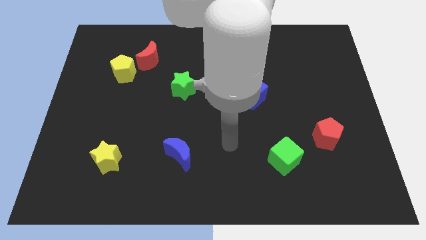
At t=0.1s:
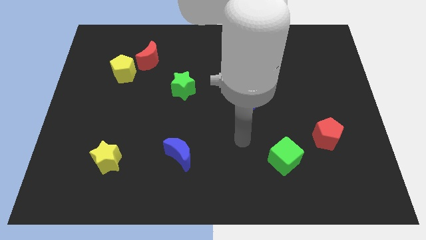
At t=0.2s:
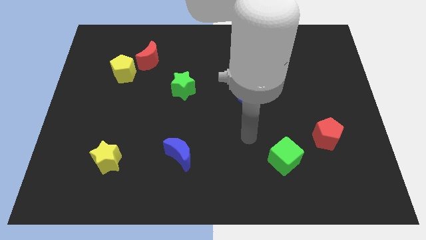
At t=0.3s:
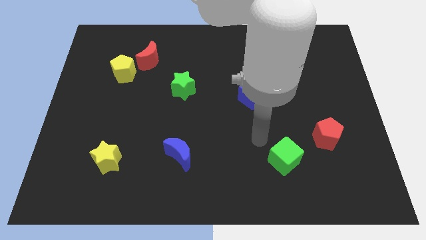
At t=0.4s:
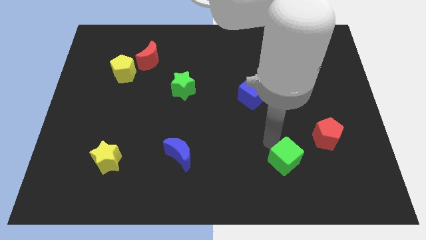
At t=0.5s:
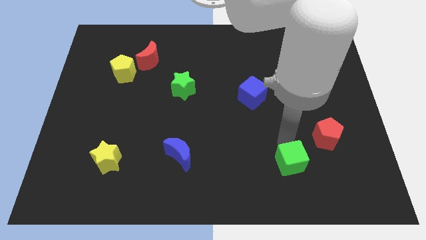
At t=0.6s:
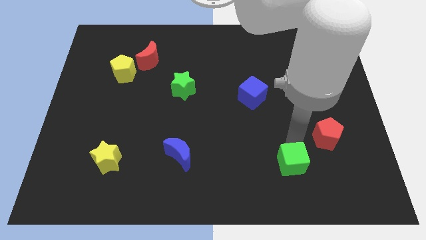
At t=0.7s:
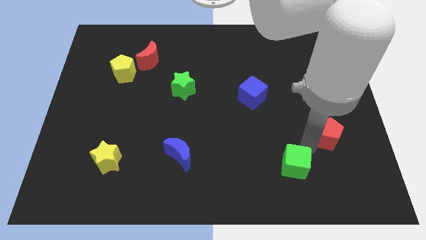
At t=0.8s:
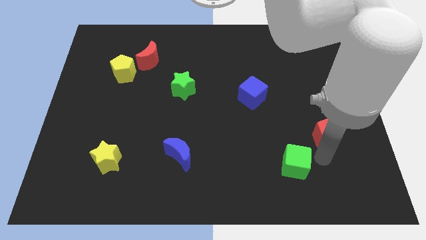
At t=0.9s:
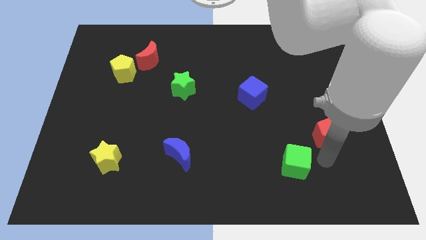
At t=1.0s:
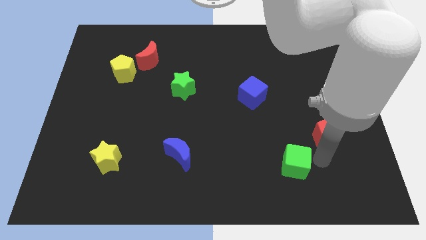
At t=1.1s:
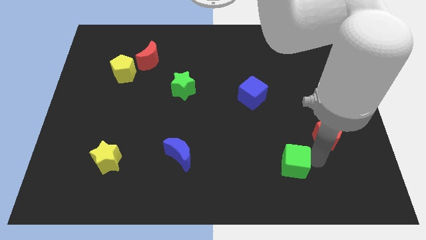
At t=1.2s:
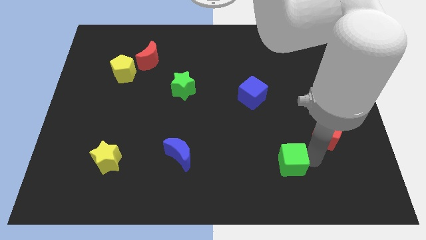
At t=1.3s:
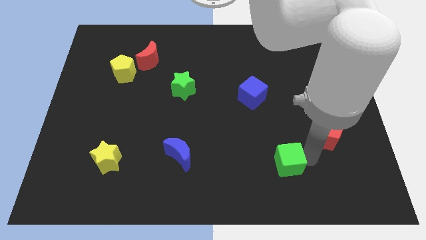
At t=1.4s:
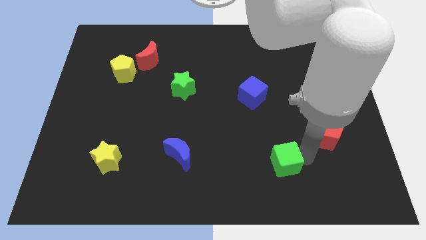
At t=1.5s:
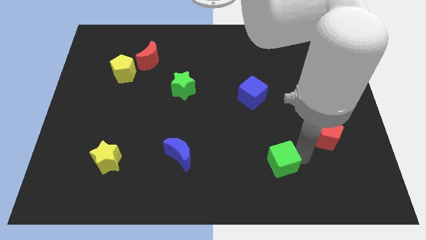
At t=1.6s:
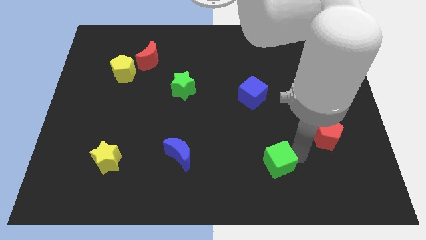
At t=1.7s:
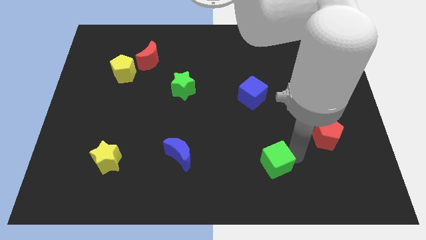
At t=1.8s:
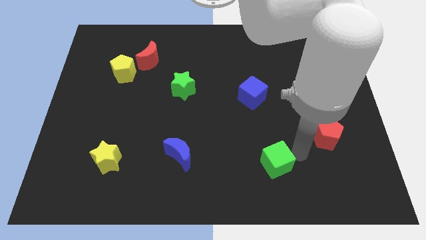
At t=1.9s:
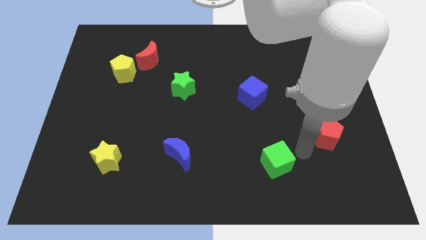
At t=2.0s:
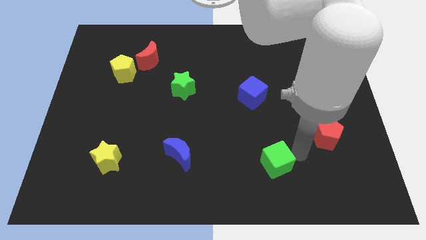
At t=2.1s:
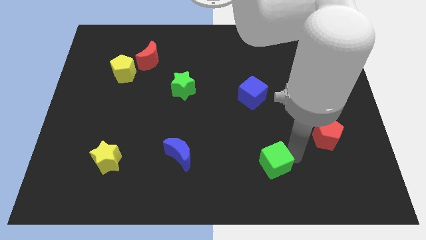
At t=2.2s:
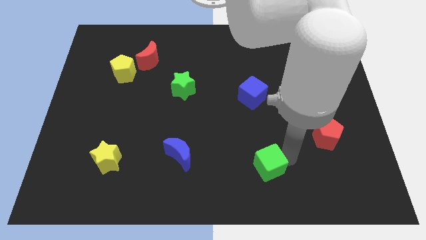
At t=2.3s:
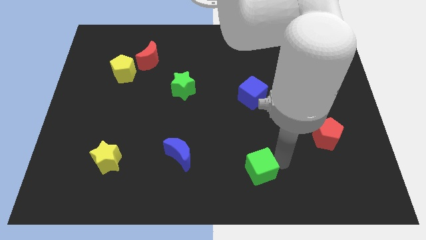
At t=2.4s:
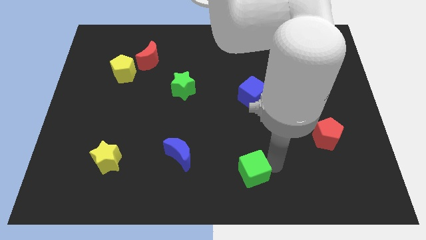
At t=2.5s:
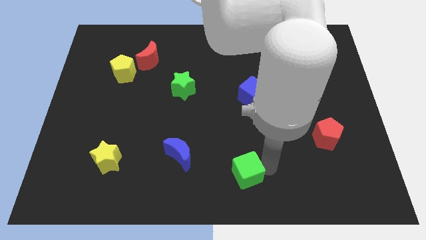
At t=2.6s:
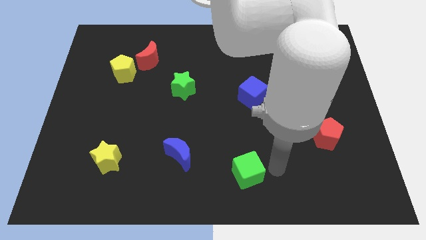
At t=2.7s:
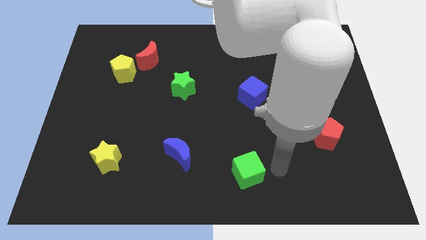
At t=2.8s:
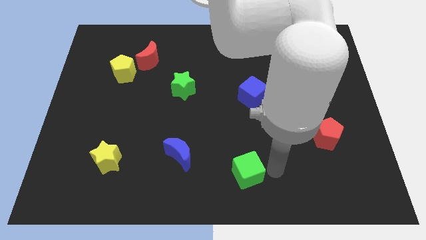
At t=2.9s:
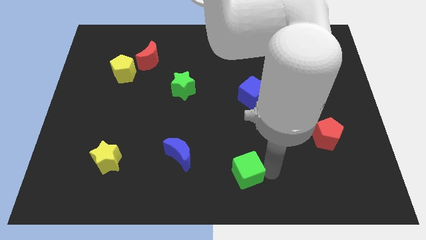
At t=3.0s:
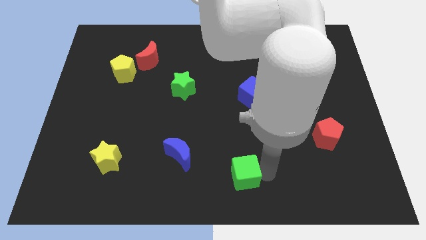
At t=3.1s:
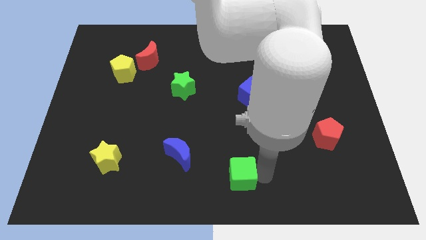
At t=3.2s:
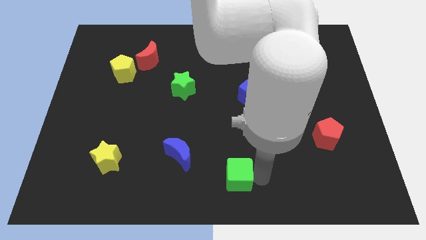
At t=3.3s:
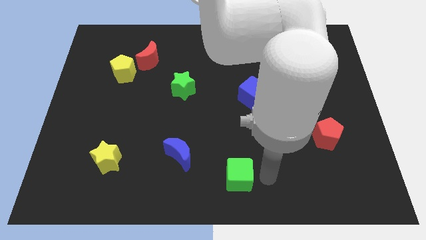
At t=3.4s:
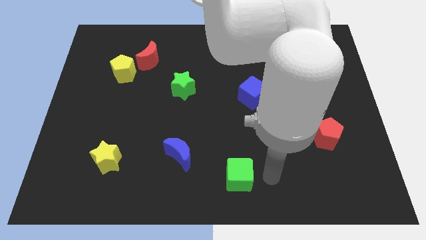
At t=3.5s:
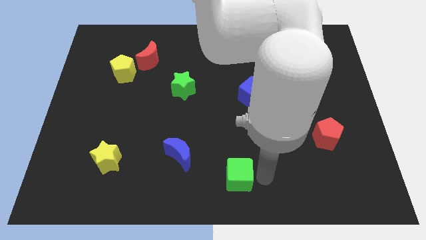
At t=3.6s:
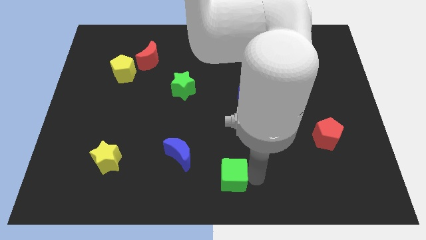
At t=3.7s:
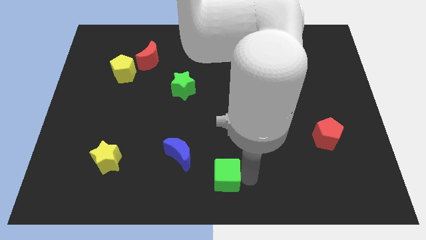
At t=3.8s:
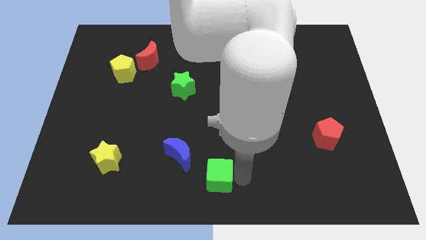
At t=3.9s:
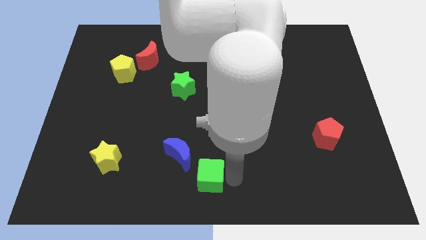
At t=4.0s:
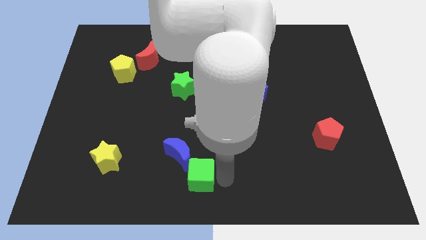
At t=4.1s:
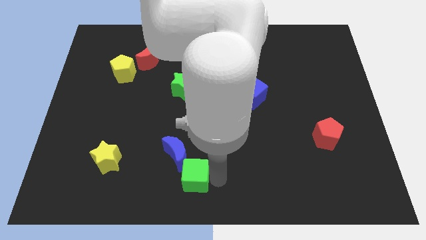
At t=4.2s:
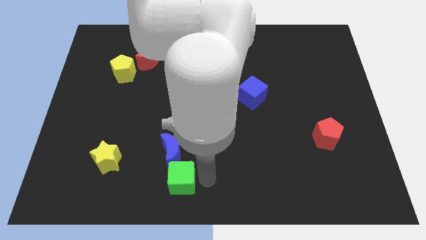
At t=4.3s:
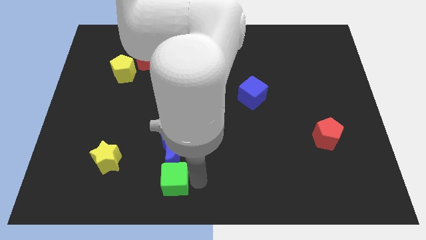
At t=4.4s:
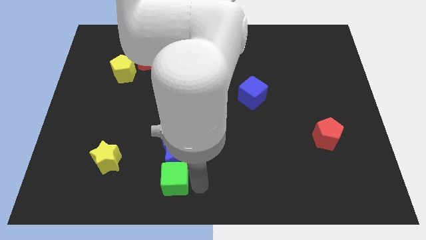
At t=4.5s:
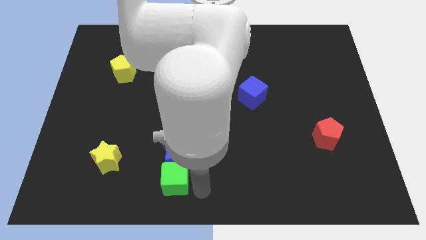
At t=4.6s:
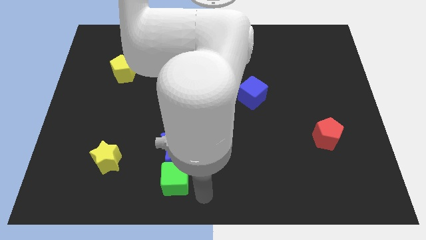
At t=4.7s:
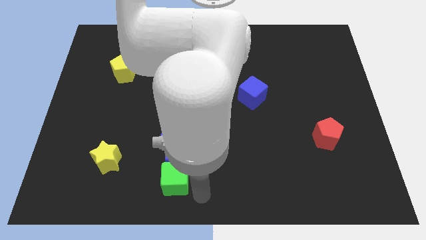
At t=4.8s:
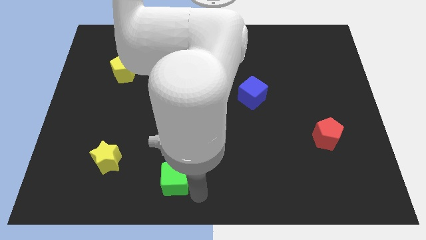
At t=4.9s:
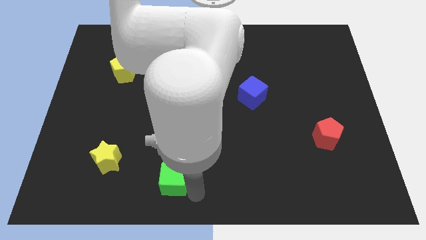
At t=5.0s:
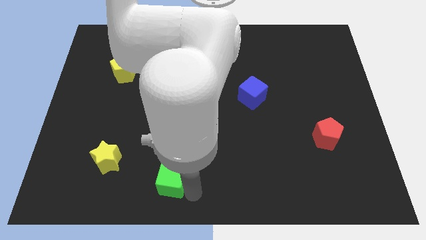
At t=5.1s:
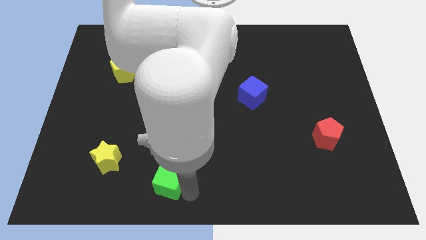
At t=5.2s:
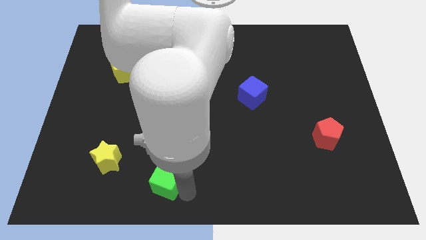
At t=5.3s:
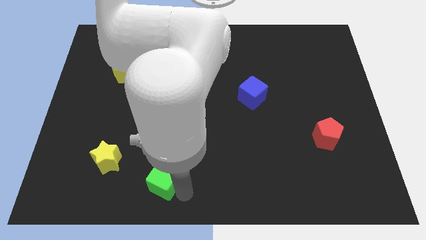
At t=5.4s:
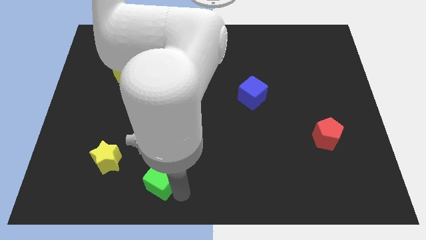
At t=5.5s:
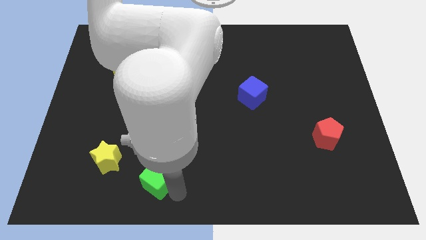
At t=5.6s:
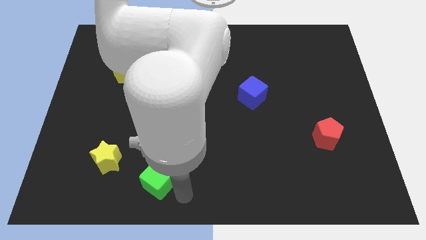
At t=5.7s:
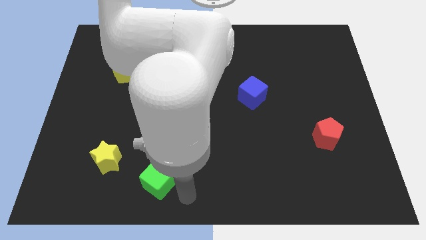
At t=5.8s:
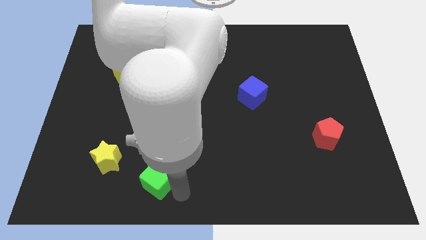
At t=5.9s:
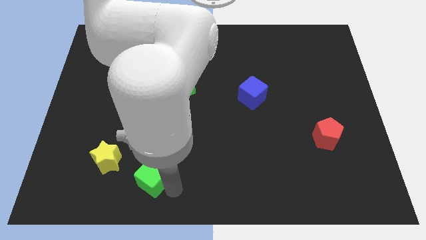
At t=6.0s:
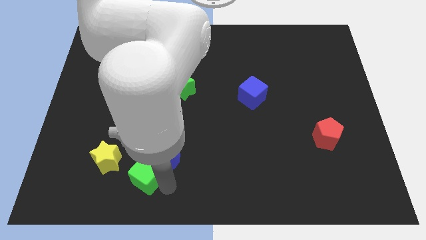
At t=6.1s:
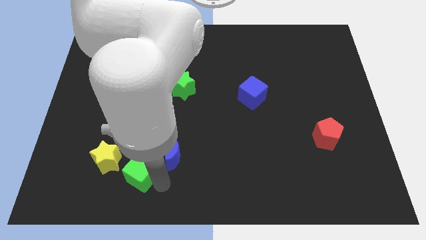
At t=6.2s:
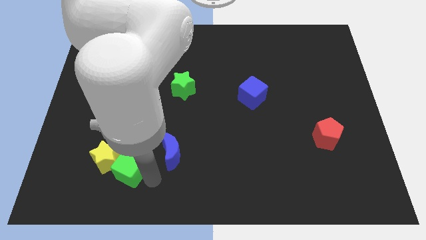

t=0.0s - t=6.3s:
push the green cube close to the yellow star
